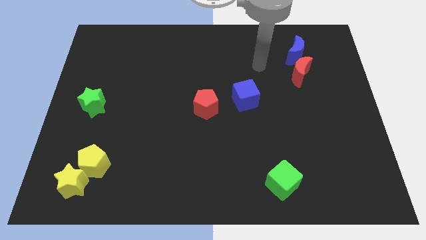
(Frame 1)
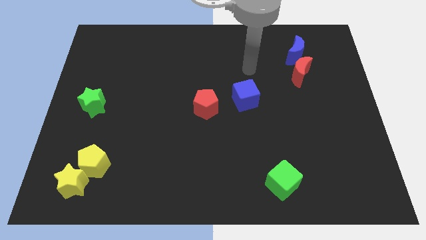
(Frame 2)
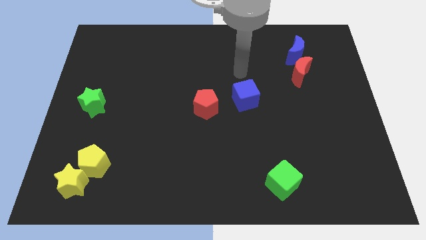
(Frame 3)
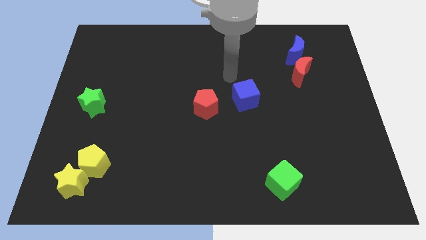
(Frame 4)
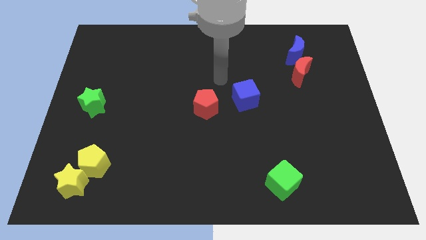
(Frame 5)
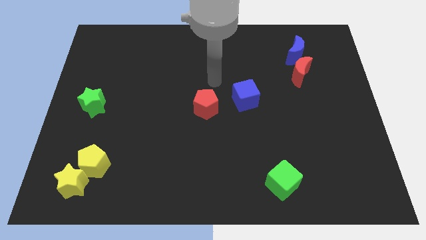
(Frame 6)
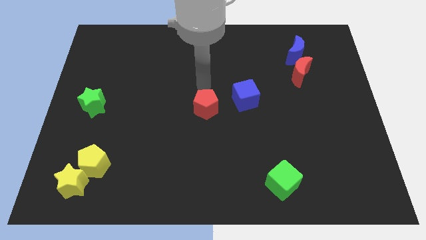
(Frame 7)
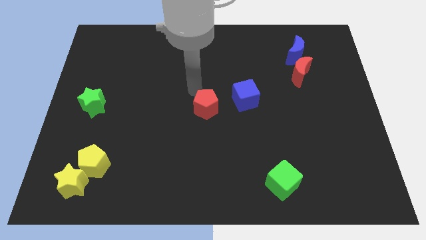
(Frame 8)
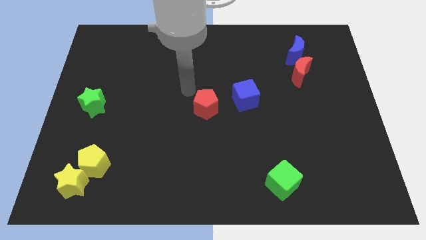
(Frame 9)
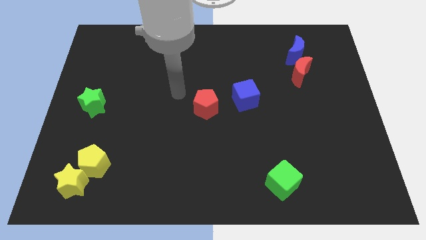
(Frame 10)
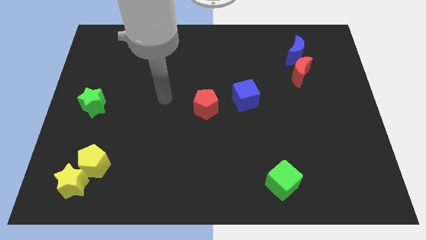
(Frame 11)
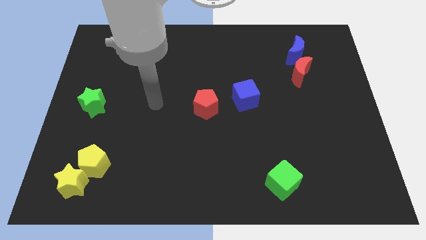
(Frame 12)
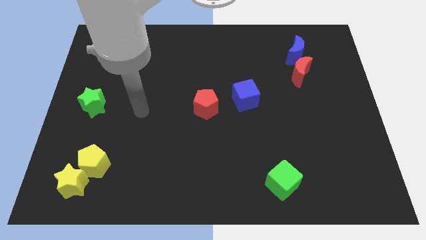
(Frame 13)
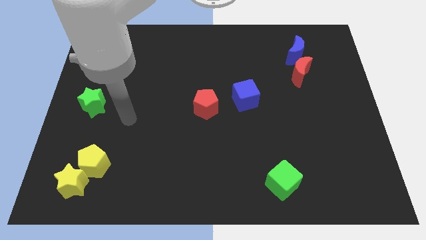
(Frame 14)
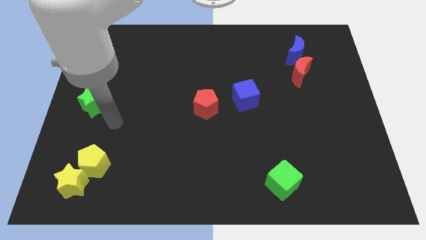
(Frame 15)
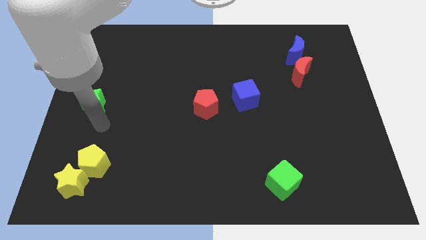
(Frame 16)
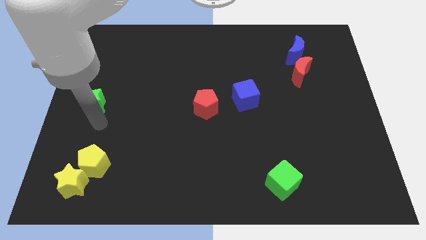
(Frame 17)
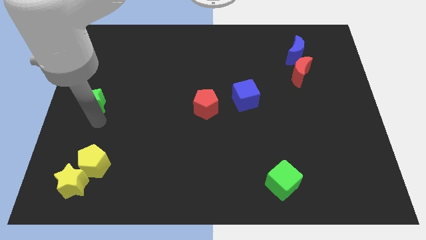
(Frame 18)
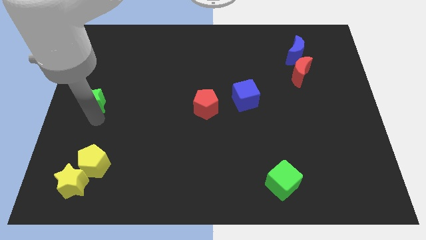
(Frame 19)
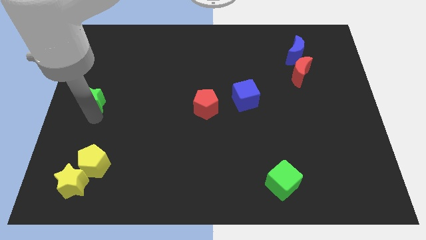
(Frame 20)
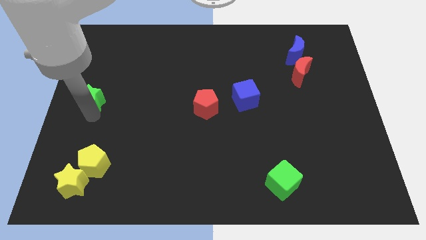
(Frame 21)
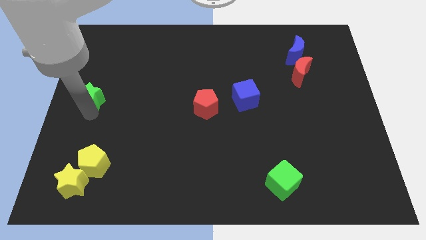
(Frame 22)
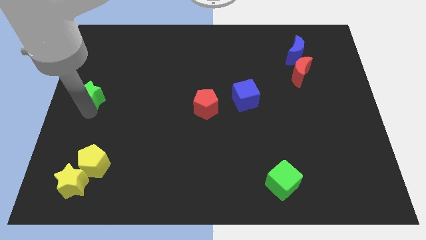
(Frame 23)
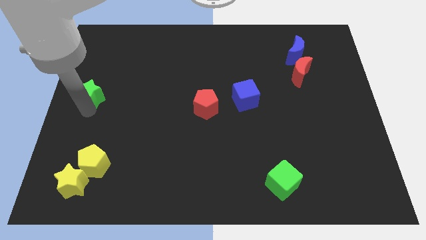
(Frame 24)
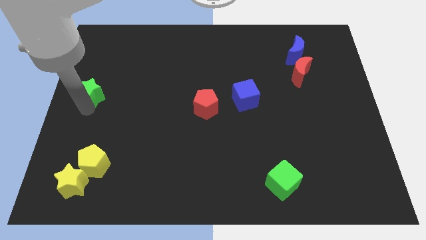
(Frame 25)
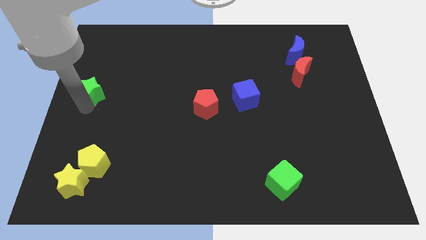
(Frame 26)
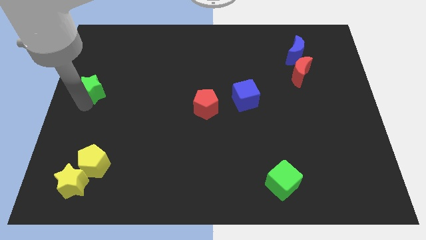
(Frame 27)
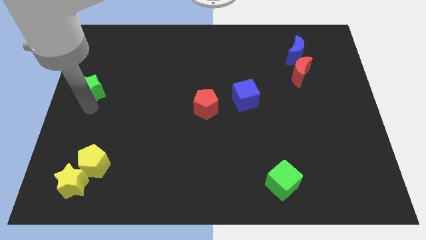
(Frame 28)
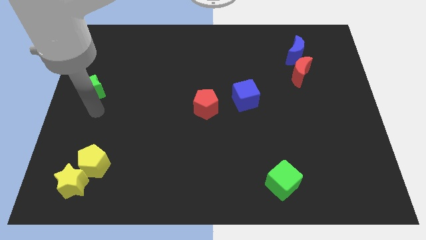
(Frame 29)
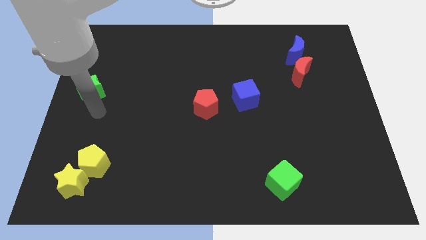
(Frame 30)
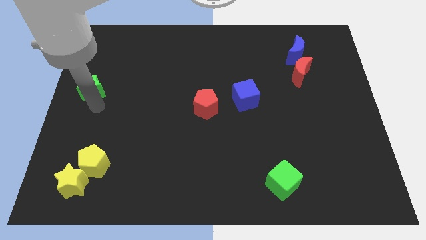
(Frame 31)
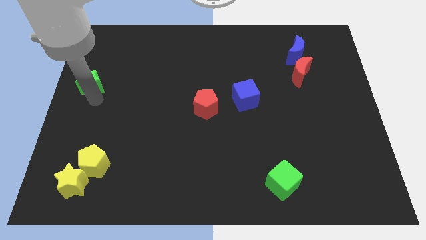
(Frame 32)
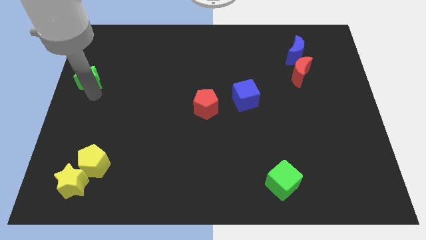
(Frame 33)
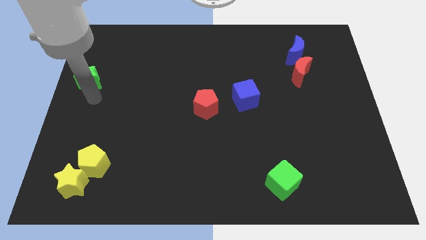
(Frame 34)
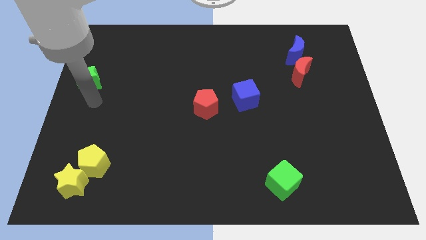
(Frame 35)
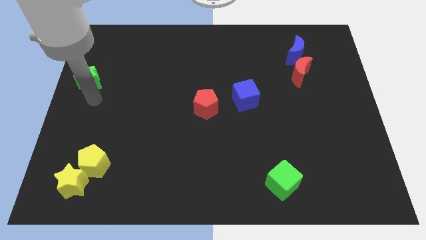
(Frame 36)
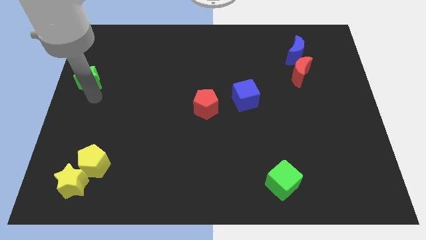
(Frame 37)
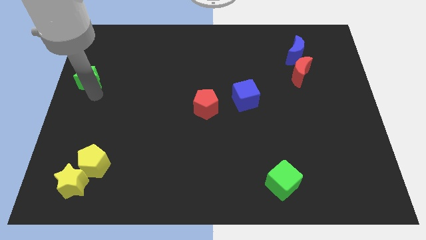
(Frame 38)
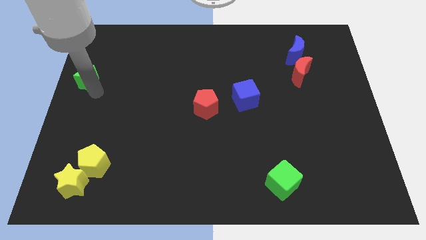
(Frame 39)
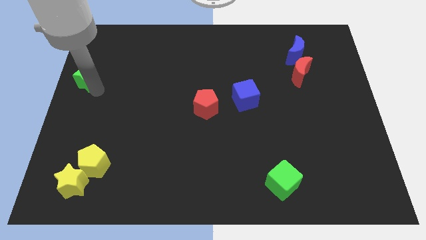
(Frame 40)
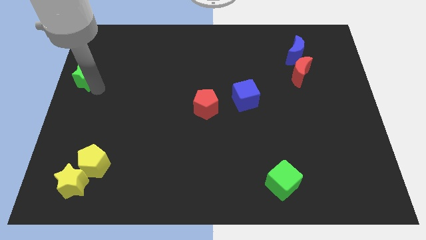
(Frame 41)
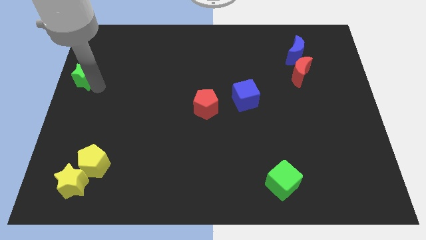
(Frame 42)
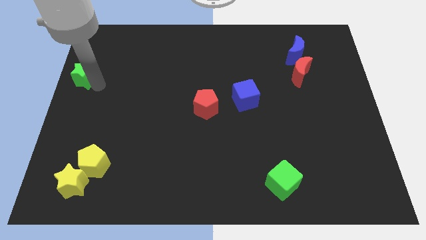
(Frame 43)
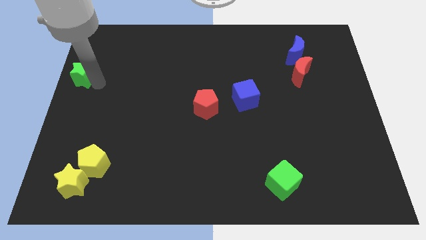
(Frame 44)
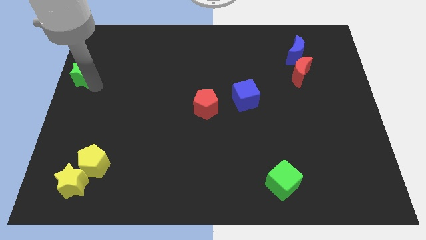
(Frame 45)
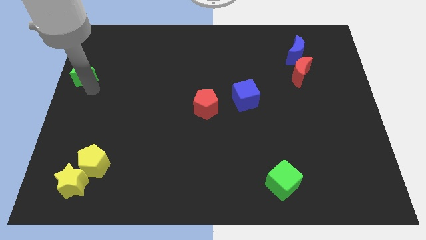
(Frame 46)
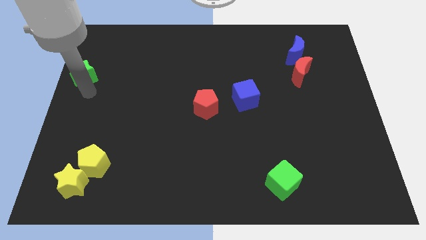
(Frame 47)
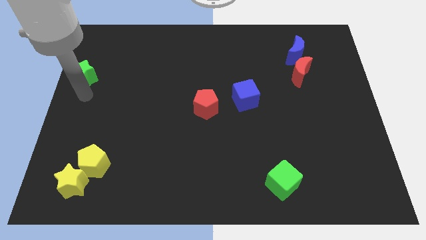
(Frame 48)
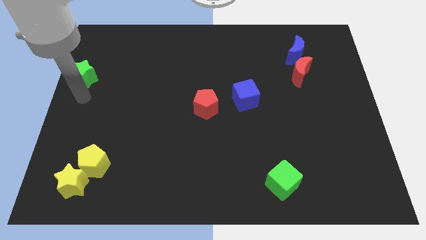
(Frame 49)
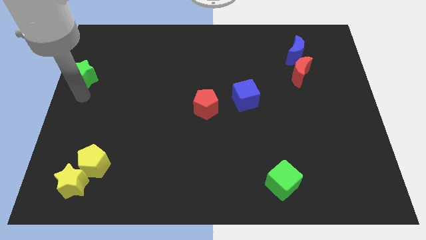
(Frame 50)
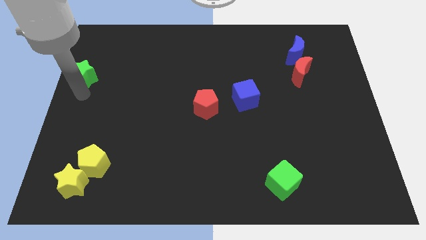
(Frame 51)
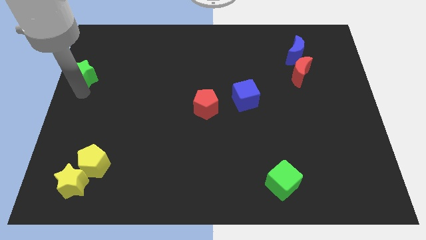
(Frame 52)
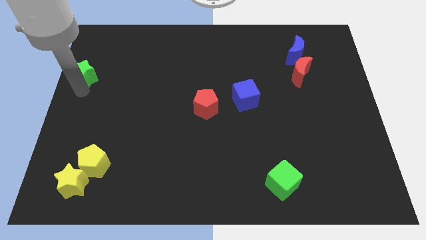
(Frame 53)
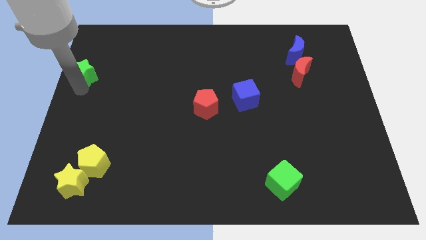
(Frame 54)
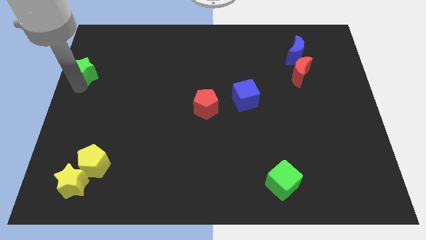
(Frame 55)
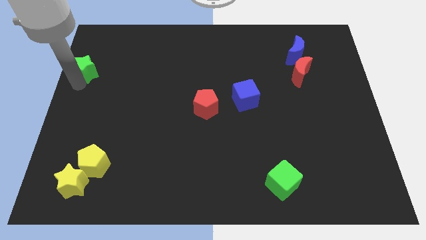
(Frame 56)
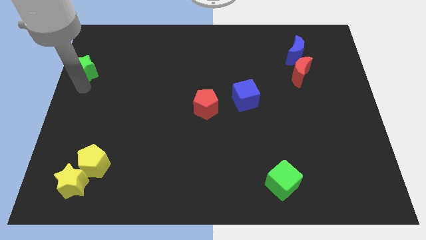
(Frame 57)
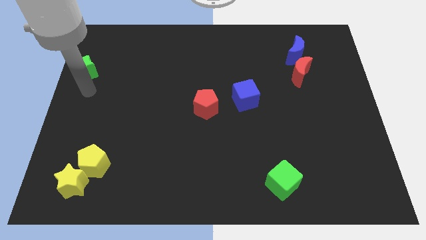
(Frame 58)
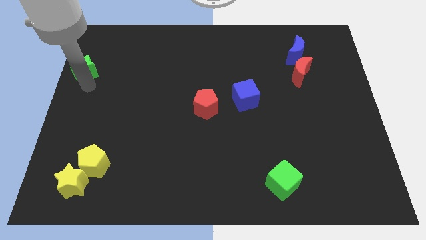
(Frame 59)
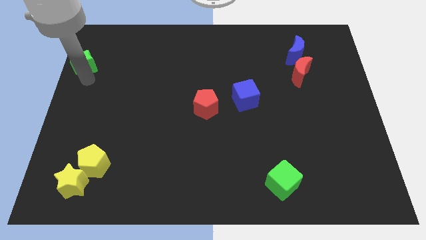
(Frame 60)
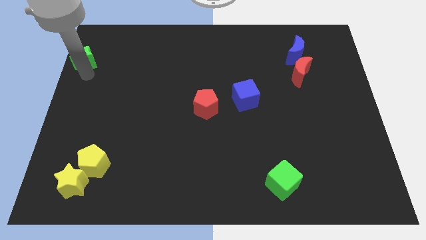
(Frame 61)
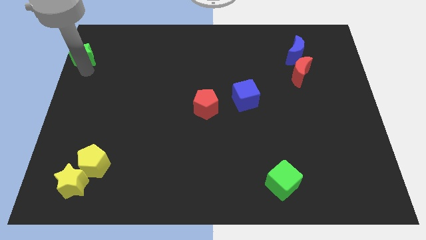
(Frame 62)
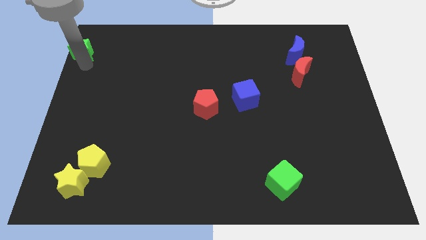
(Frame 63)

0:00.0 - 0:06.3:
move the green star to the top left of the board

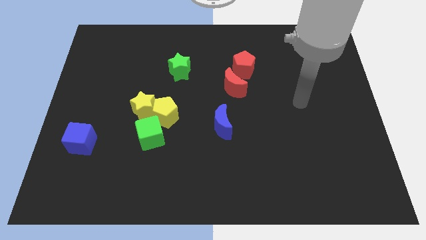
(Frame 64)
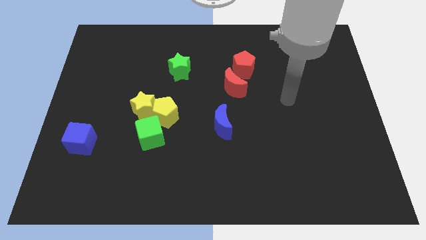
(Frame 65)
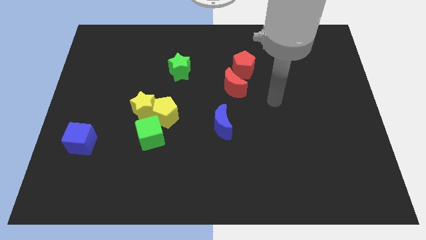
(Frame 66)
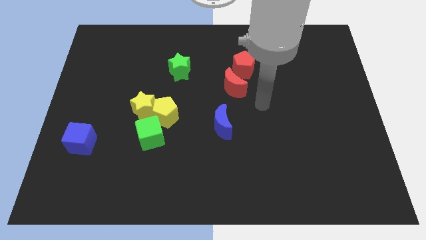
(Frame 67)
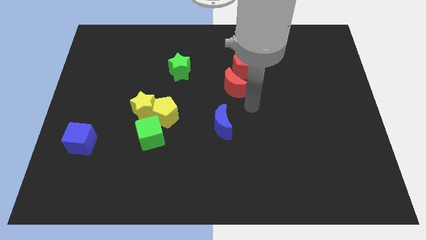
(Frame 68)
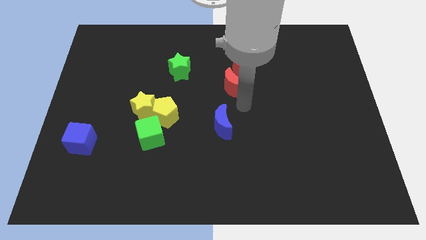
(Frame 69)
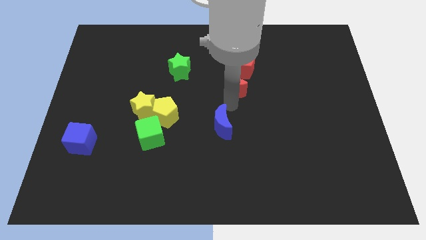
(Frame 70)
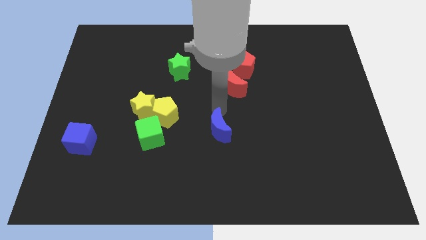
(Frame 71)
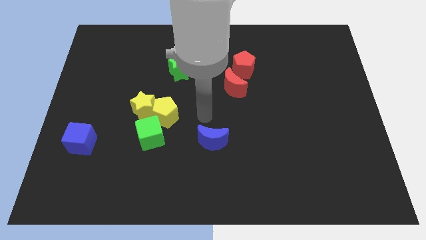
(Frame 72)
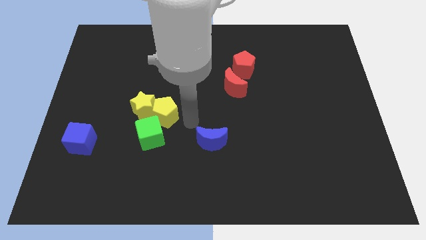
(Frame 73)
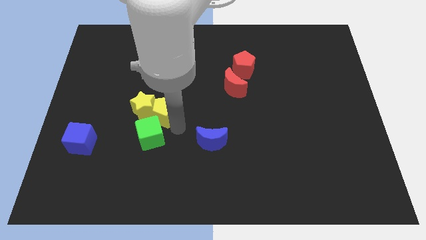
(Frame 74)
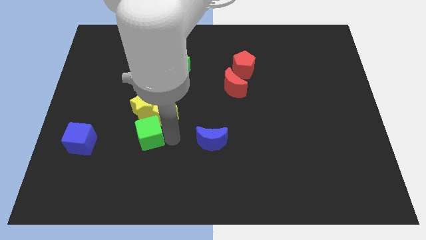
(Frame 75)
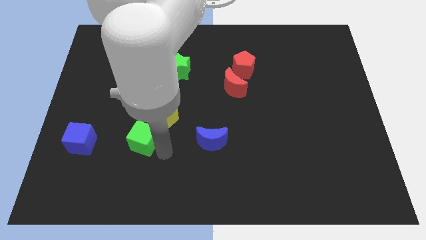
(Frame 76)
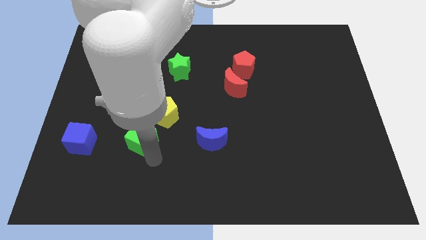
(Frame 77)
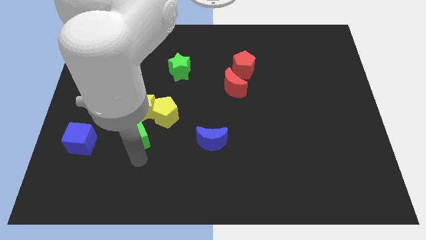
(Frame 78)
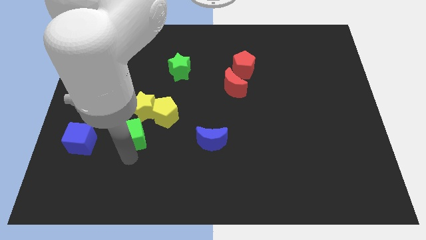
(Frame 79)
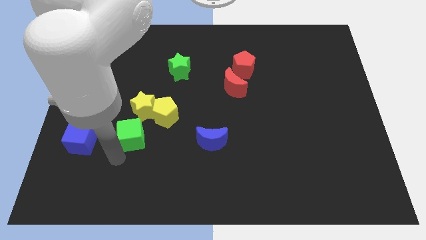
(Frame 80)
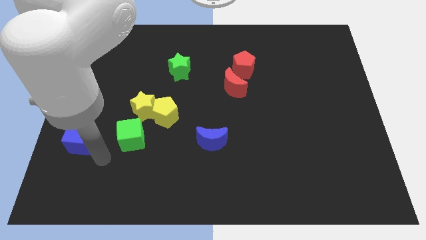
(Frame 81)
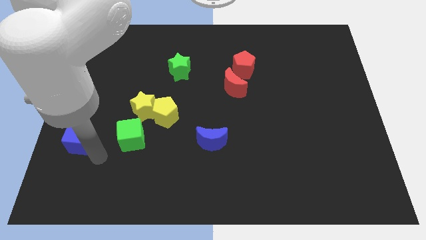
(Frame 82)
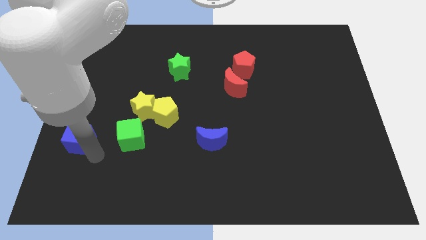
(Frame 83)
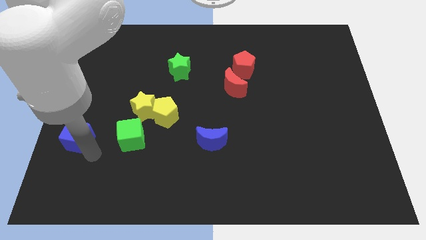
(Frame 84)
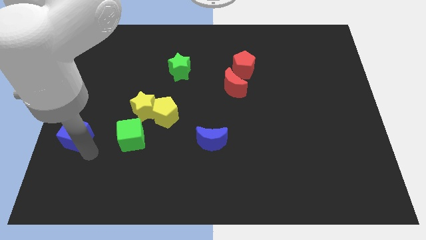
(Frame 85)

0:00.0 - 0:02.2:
slide the blue cube to the left side
